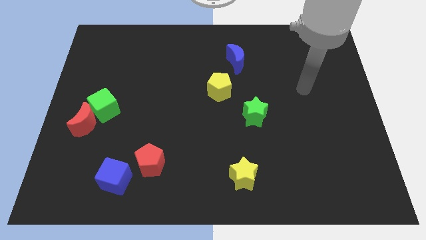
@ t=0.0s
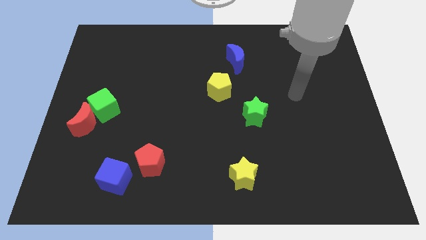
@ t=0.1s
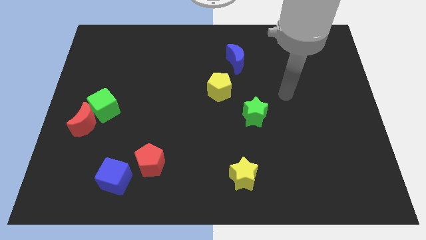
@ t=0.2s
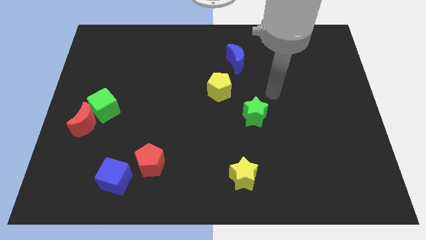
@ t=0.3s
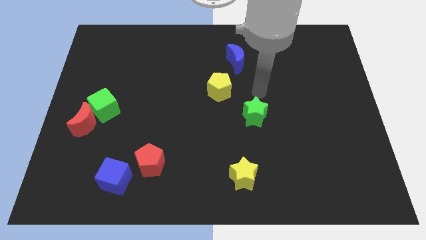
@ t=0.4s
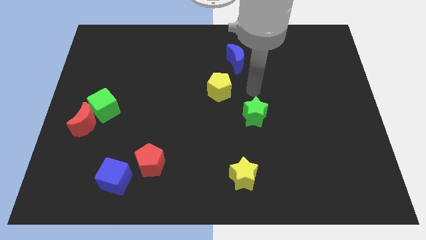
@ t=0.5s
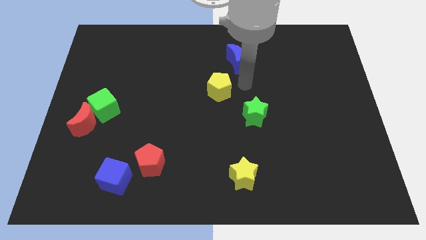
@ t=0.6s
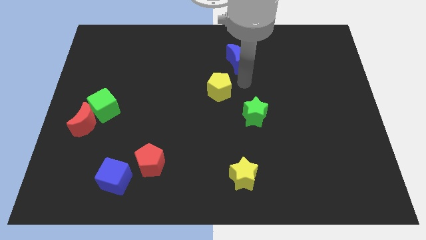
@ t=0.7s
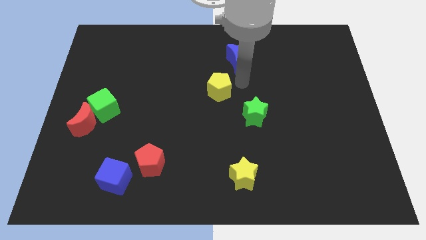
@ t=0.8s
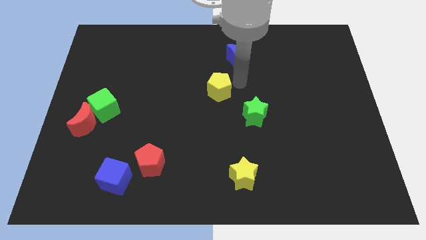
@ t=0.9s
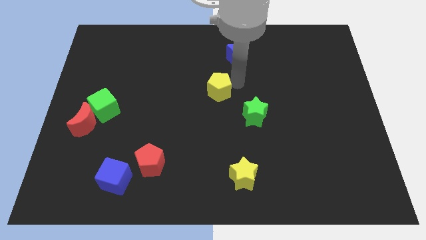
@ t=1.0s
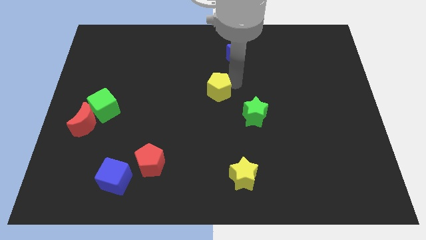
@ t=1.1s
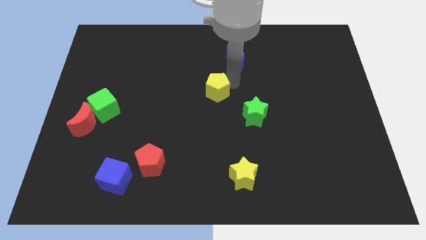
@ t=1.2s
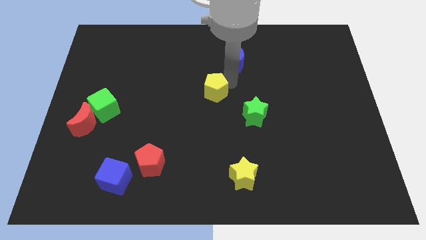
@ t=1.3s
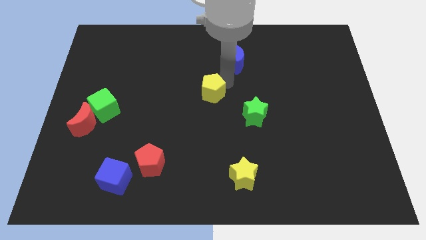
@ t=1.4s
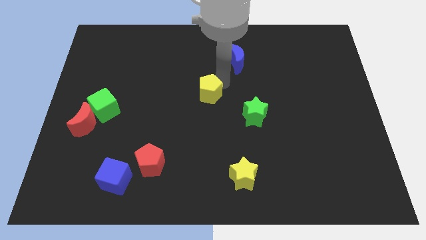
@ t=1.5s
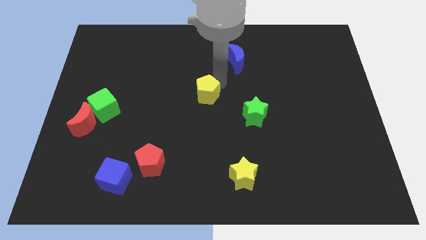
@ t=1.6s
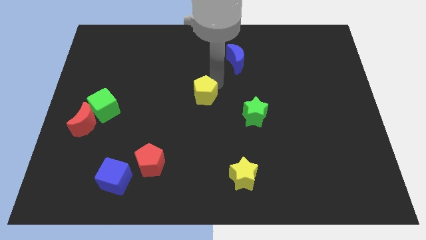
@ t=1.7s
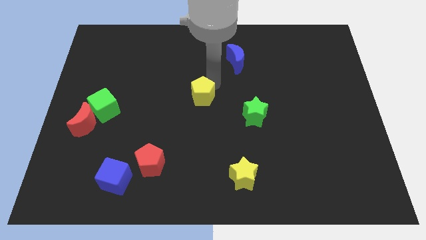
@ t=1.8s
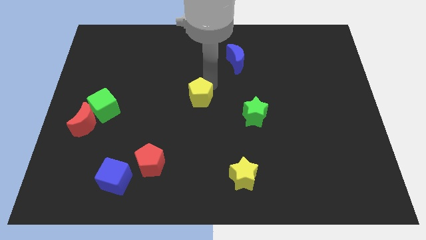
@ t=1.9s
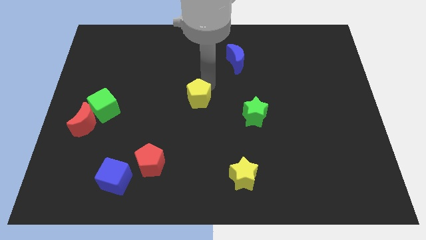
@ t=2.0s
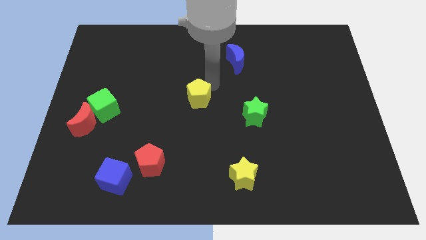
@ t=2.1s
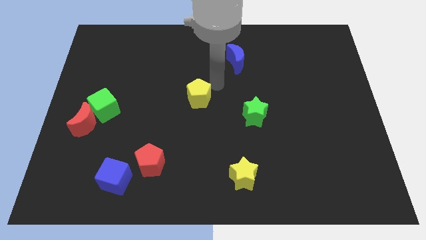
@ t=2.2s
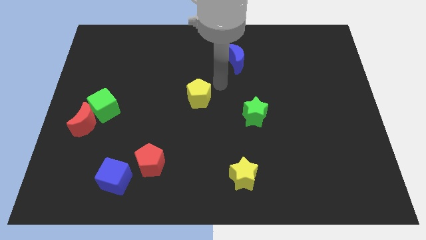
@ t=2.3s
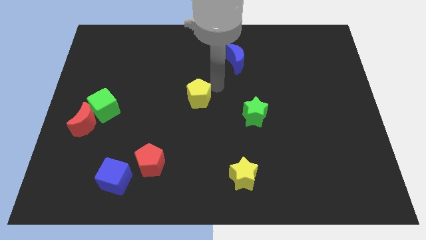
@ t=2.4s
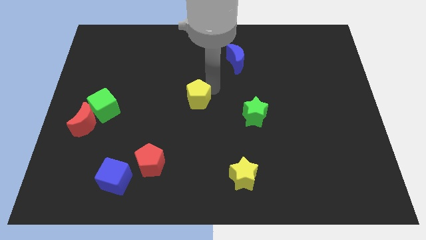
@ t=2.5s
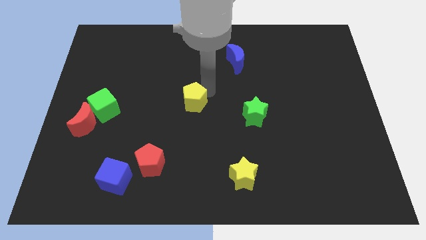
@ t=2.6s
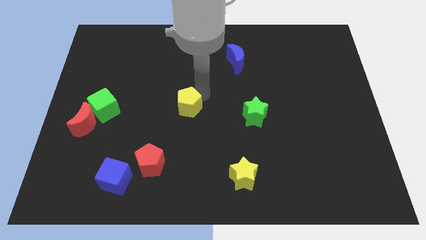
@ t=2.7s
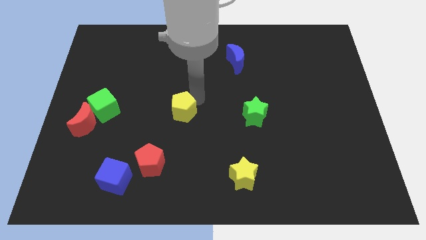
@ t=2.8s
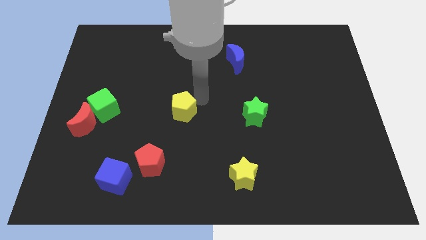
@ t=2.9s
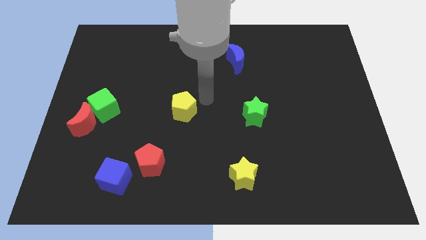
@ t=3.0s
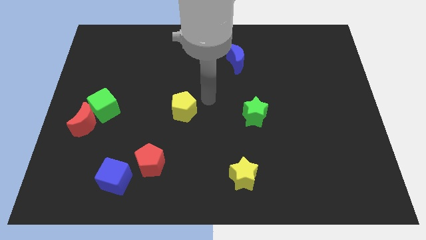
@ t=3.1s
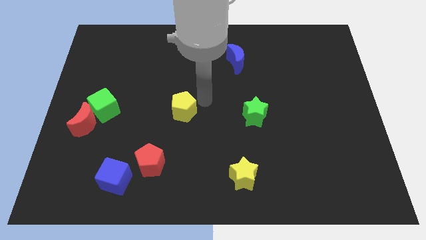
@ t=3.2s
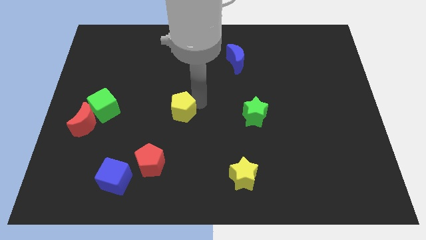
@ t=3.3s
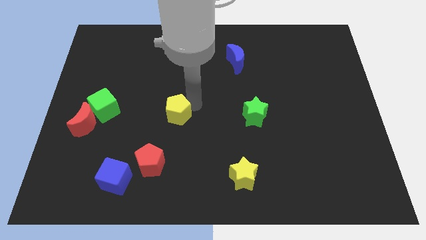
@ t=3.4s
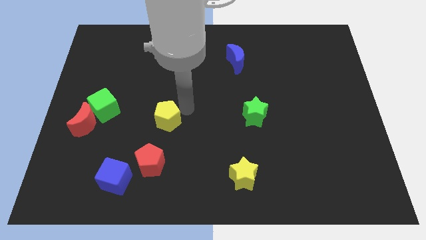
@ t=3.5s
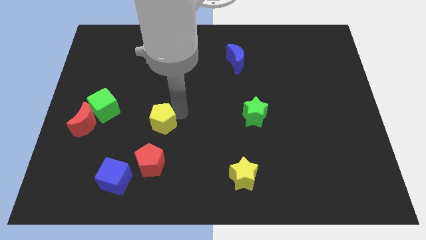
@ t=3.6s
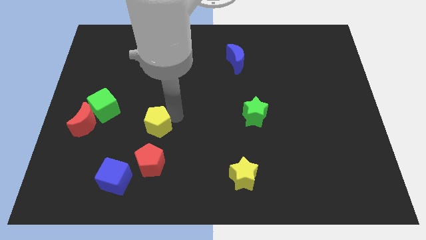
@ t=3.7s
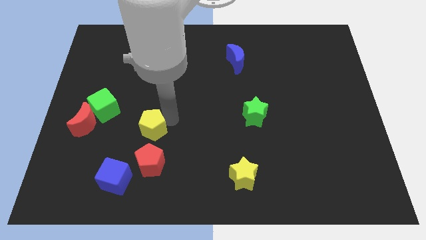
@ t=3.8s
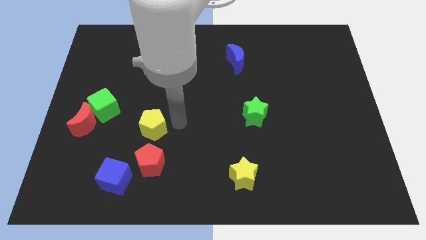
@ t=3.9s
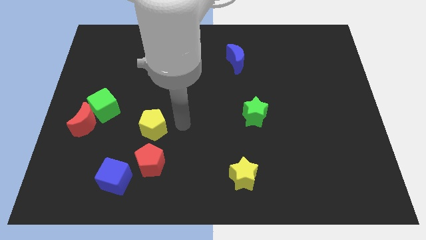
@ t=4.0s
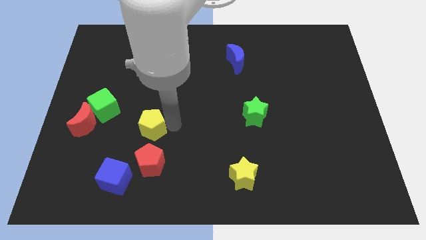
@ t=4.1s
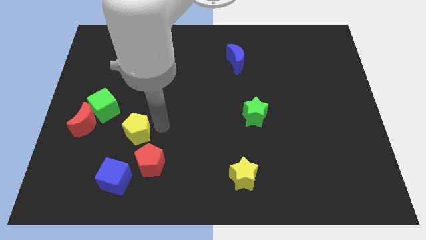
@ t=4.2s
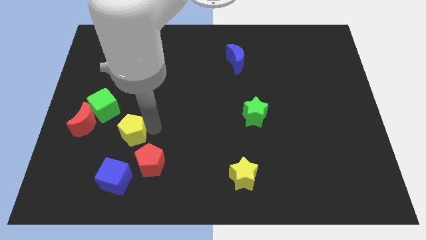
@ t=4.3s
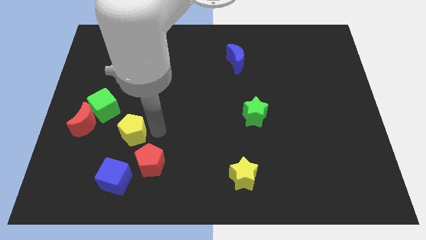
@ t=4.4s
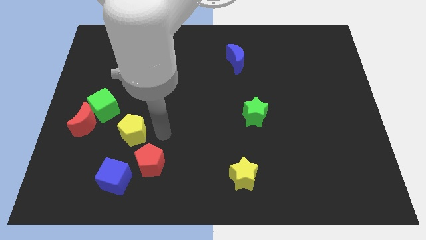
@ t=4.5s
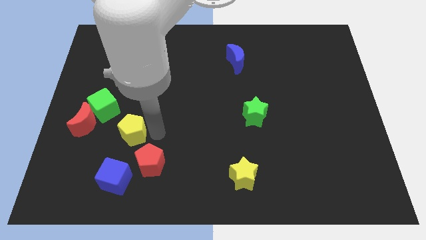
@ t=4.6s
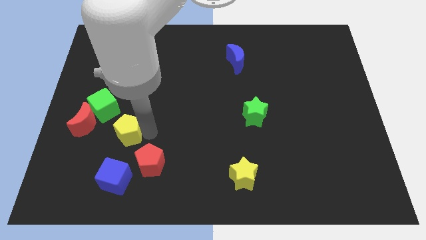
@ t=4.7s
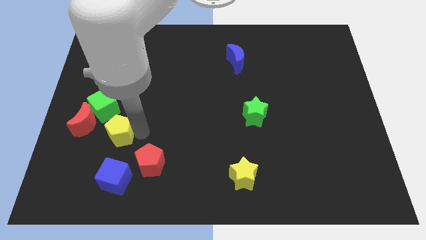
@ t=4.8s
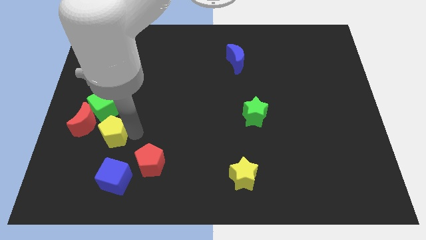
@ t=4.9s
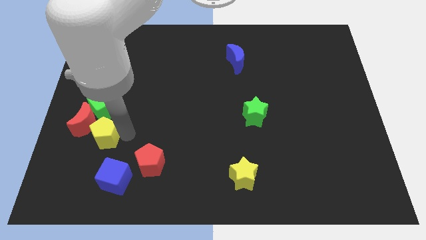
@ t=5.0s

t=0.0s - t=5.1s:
slide the yellow pentagon to the red moon

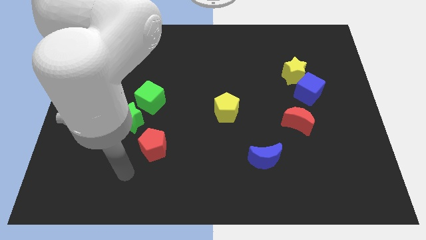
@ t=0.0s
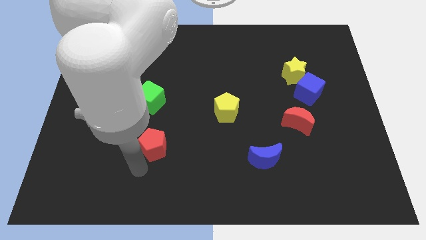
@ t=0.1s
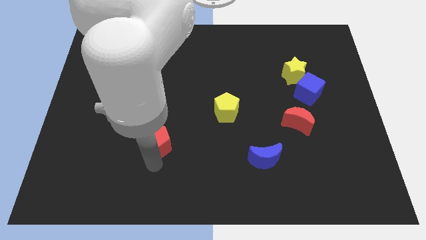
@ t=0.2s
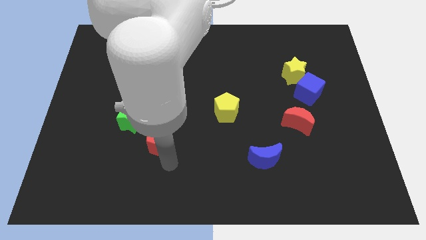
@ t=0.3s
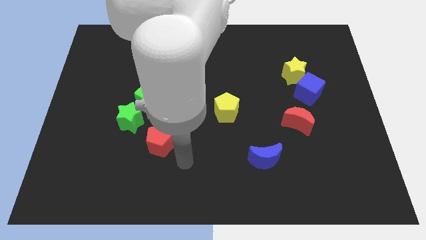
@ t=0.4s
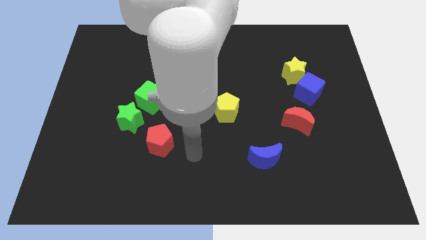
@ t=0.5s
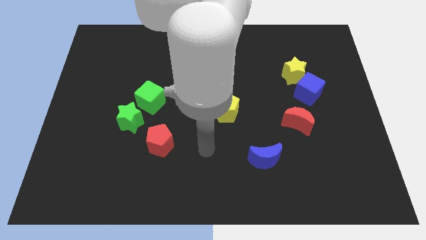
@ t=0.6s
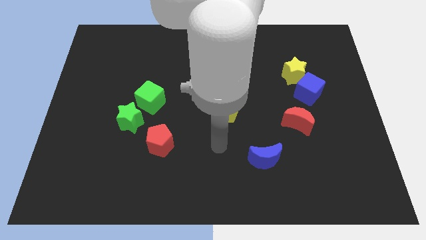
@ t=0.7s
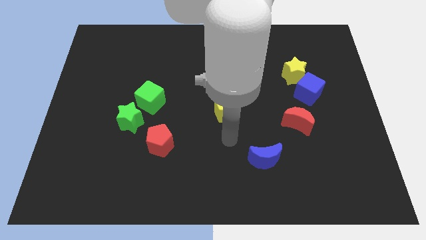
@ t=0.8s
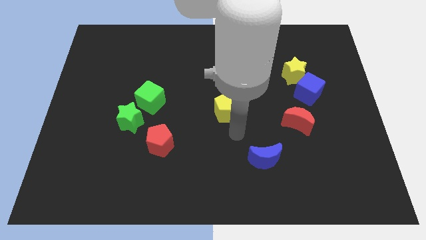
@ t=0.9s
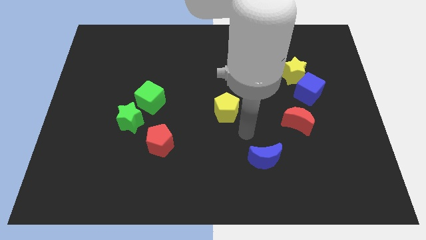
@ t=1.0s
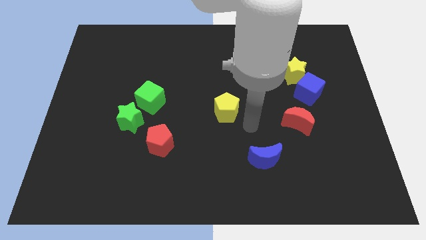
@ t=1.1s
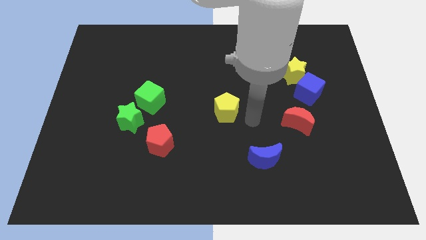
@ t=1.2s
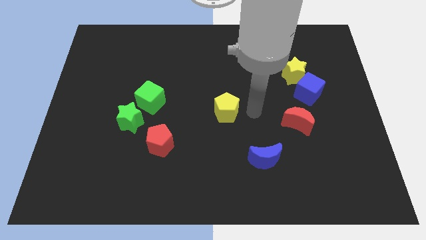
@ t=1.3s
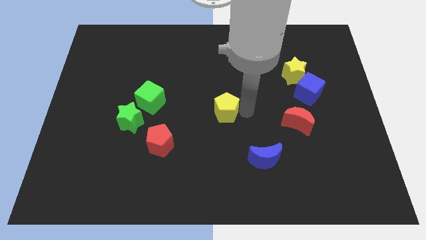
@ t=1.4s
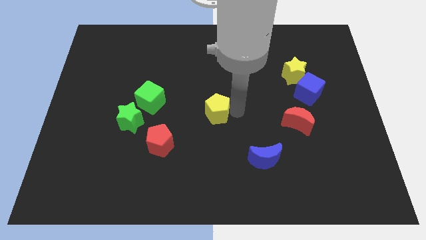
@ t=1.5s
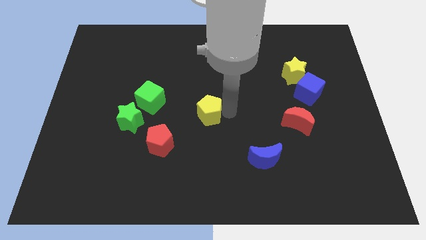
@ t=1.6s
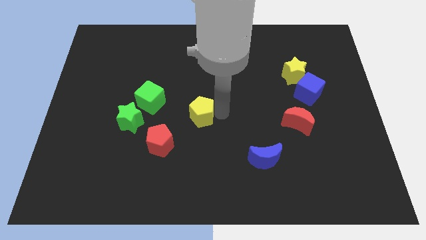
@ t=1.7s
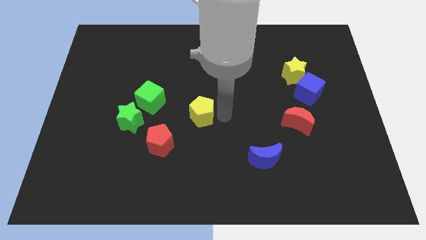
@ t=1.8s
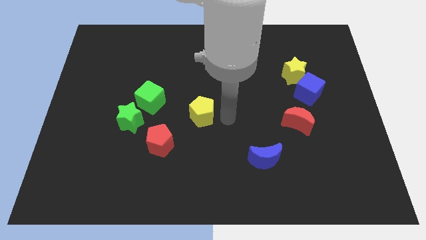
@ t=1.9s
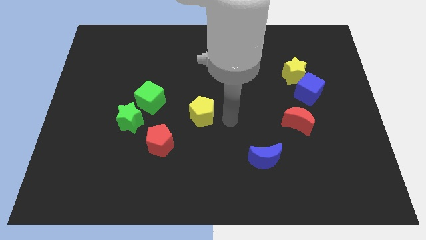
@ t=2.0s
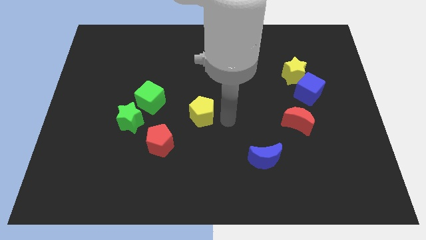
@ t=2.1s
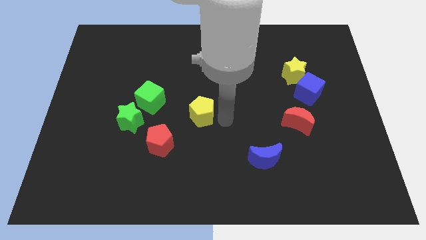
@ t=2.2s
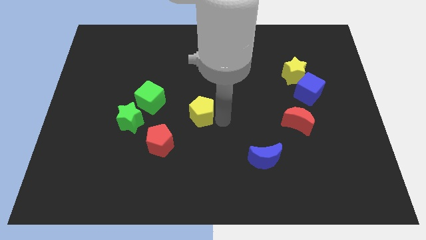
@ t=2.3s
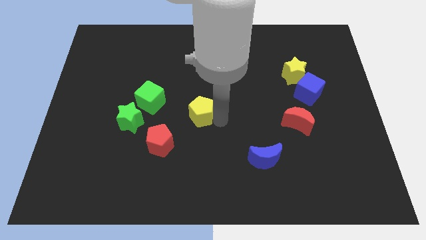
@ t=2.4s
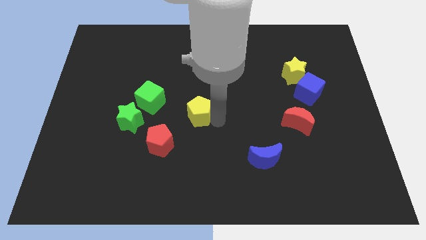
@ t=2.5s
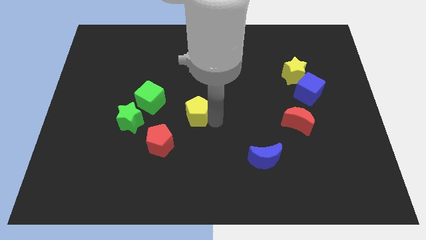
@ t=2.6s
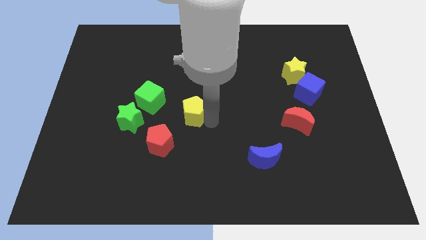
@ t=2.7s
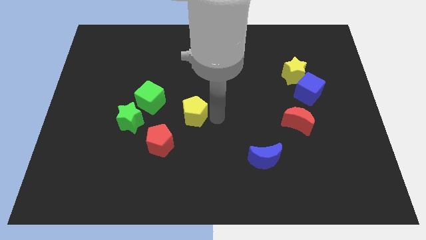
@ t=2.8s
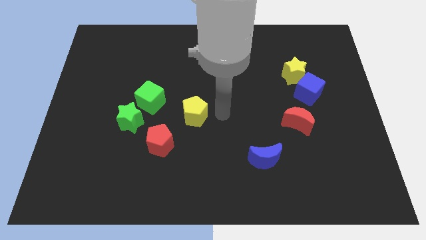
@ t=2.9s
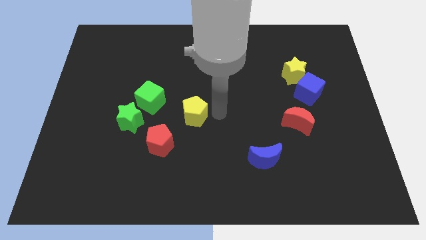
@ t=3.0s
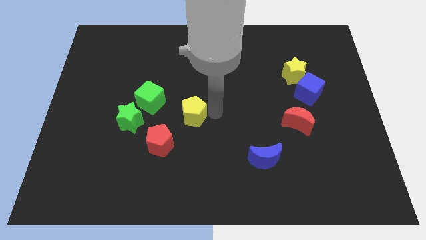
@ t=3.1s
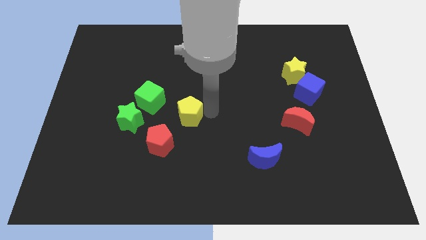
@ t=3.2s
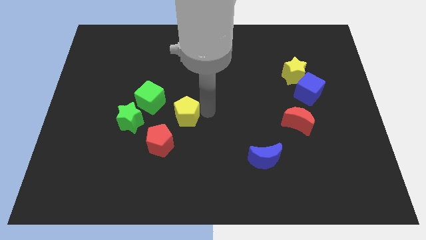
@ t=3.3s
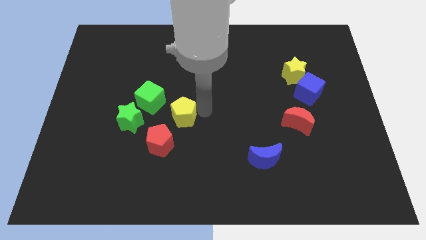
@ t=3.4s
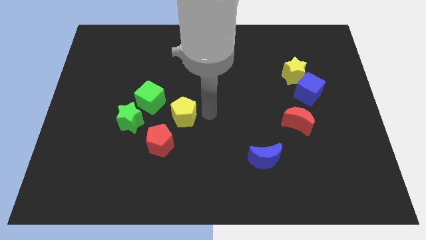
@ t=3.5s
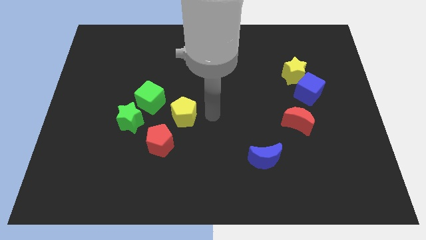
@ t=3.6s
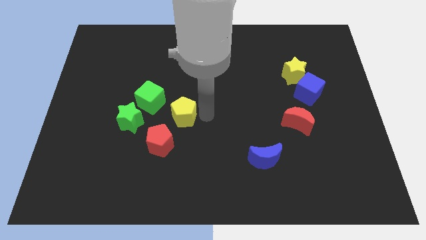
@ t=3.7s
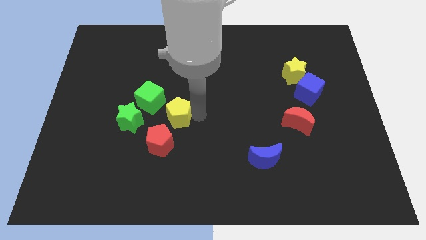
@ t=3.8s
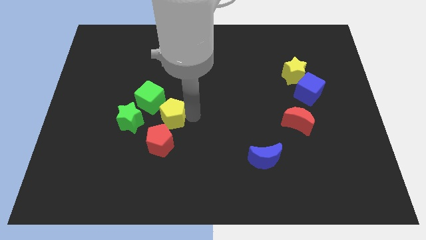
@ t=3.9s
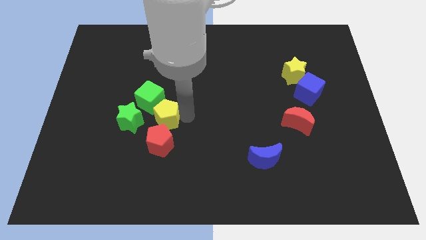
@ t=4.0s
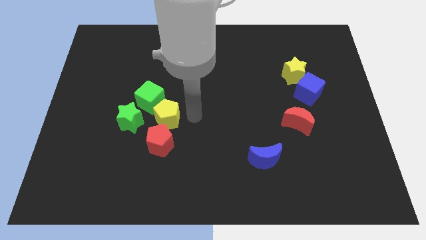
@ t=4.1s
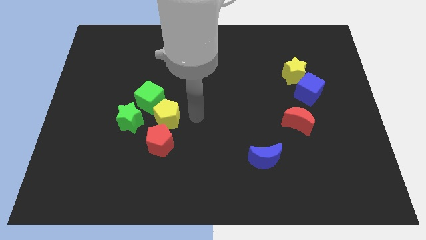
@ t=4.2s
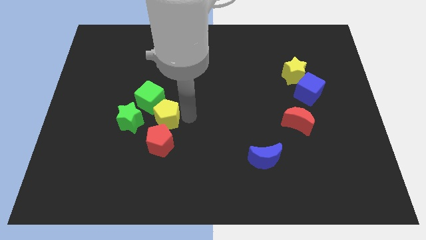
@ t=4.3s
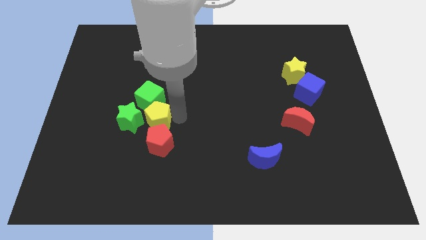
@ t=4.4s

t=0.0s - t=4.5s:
push the yellow pentagon next to the green star
